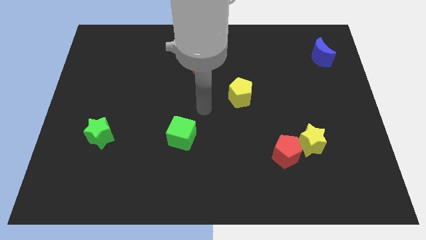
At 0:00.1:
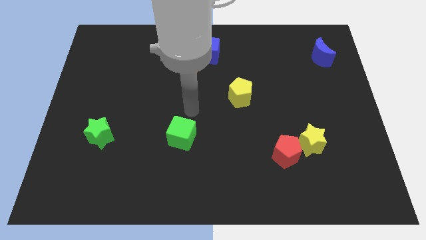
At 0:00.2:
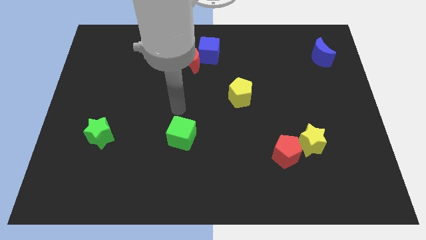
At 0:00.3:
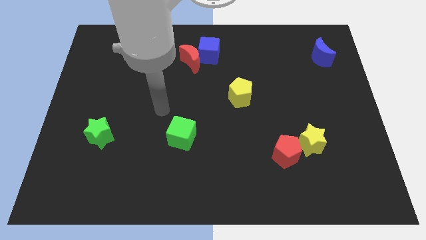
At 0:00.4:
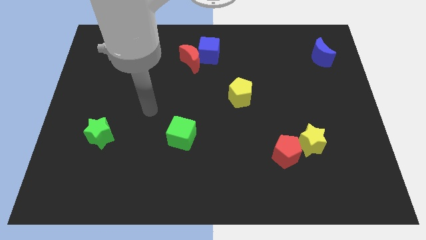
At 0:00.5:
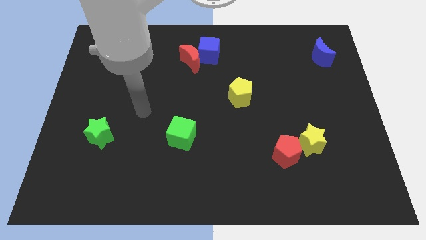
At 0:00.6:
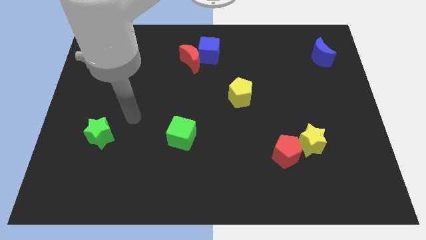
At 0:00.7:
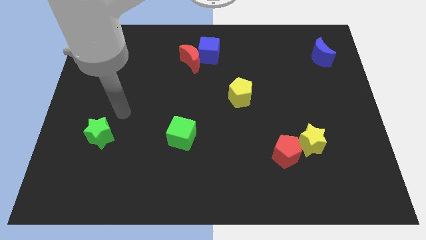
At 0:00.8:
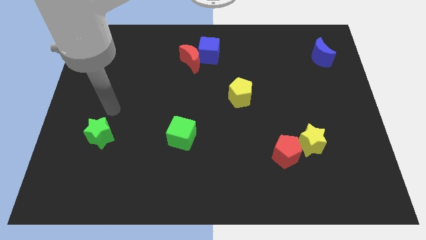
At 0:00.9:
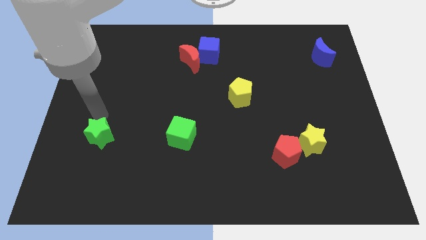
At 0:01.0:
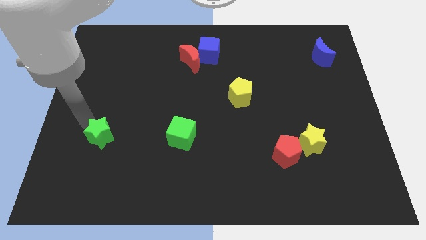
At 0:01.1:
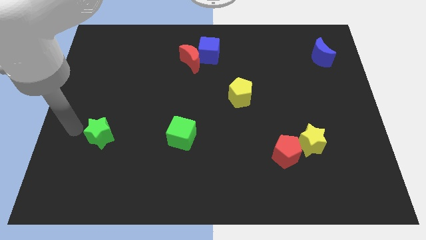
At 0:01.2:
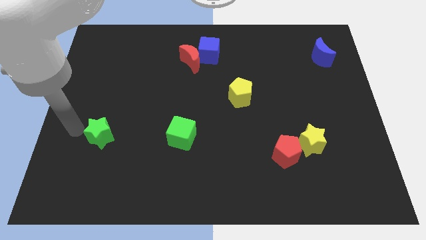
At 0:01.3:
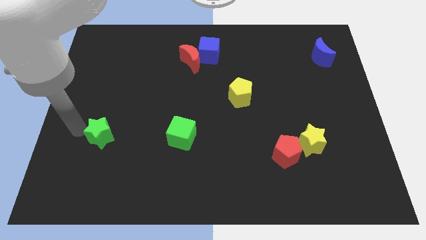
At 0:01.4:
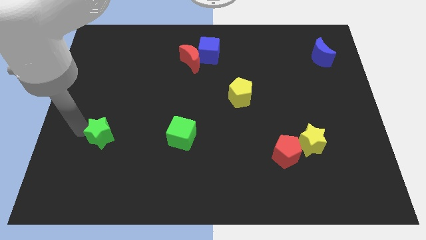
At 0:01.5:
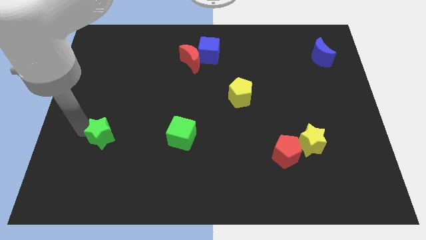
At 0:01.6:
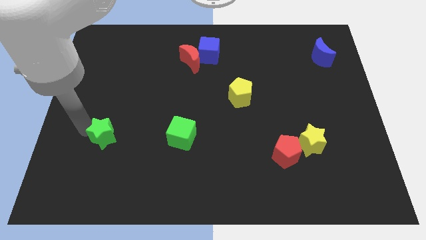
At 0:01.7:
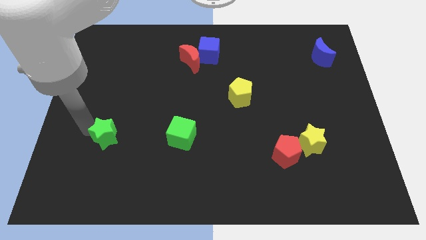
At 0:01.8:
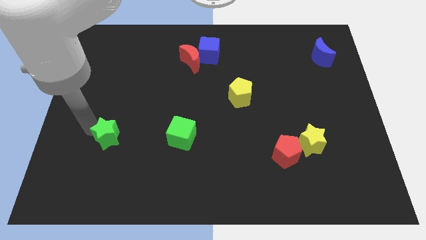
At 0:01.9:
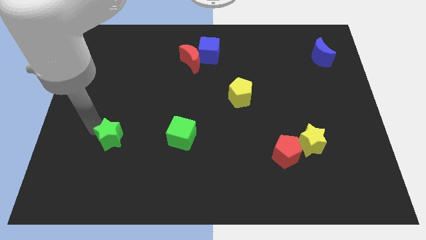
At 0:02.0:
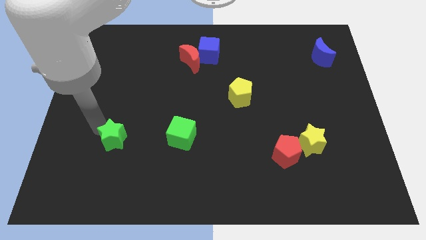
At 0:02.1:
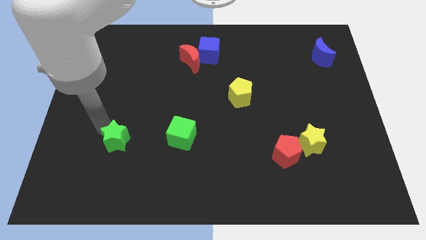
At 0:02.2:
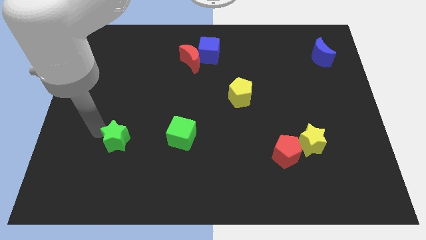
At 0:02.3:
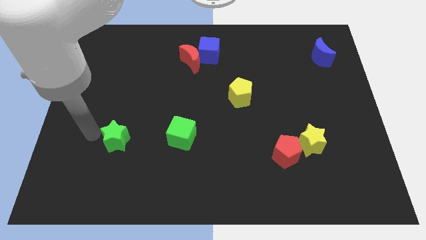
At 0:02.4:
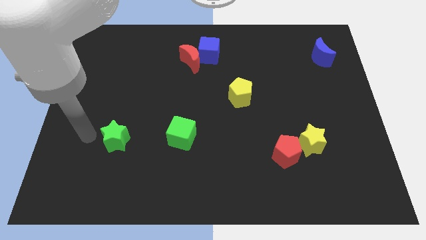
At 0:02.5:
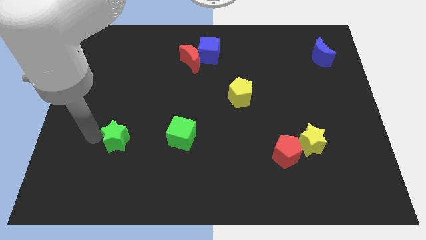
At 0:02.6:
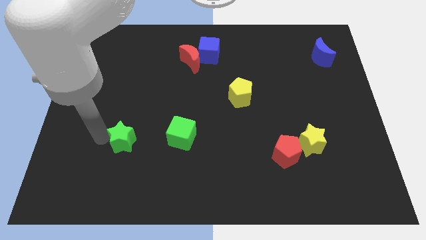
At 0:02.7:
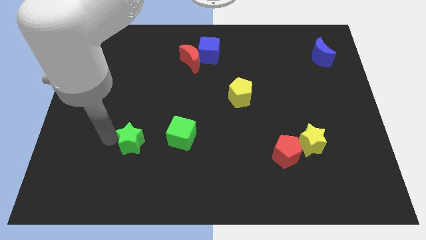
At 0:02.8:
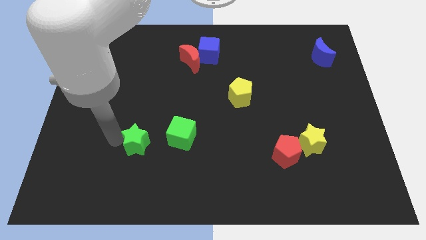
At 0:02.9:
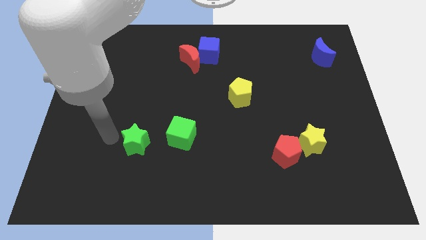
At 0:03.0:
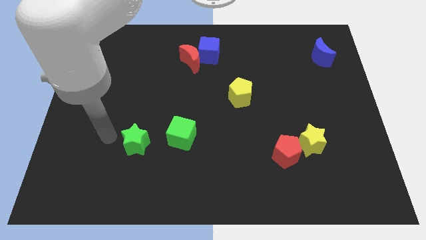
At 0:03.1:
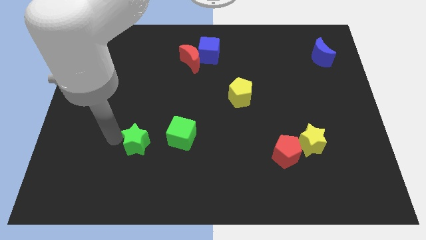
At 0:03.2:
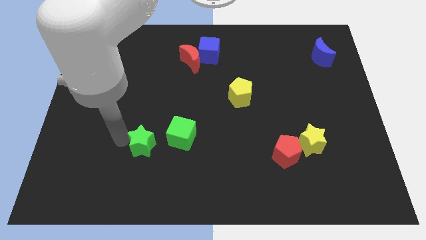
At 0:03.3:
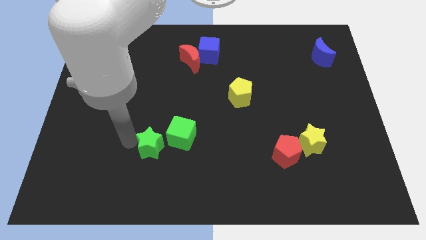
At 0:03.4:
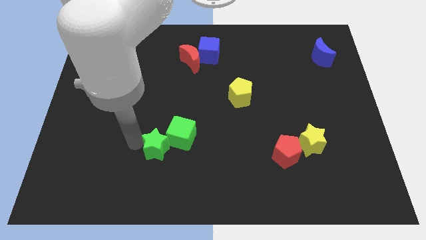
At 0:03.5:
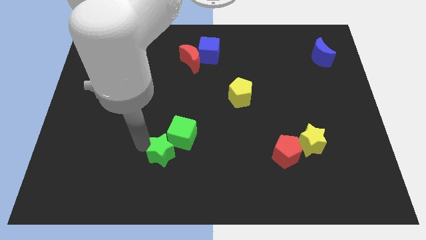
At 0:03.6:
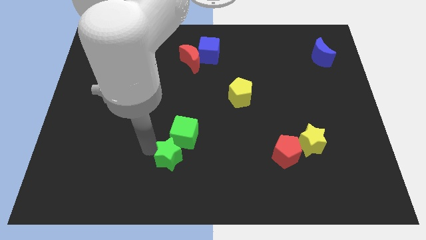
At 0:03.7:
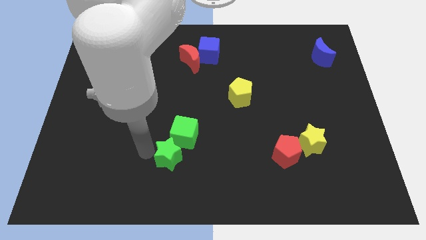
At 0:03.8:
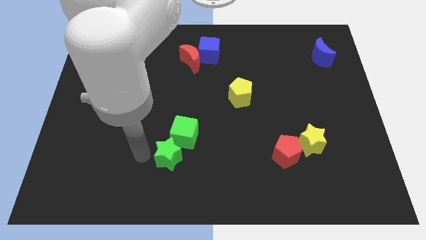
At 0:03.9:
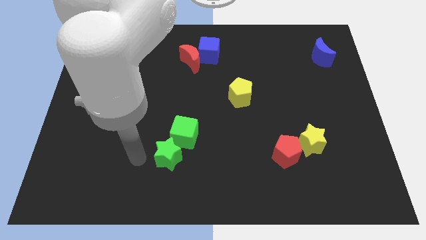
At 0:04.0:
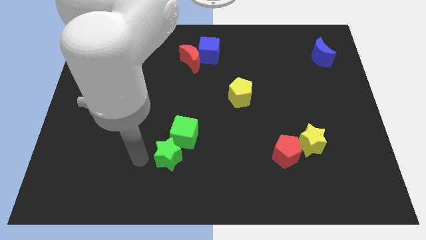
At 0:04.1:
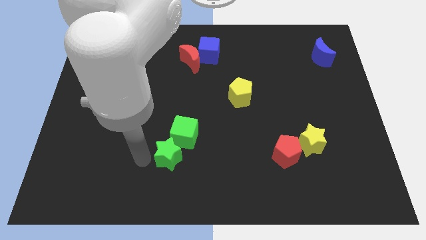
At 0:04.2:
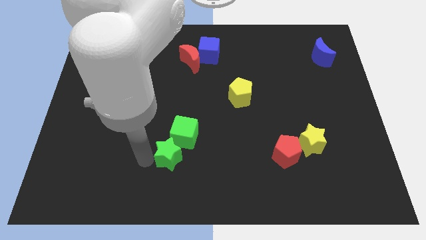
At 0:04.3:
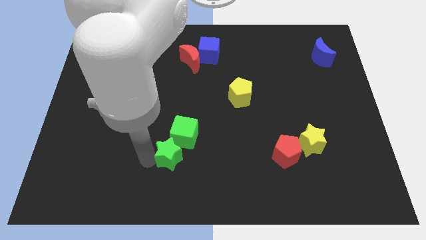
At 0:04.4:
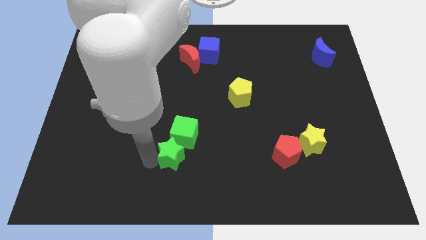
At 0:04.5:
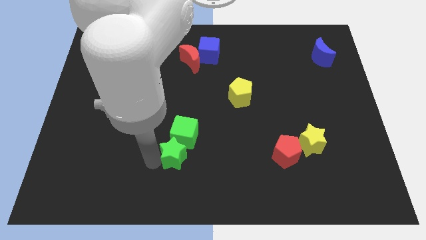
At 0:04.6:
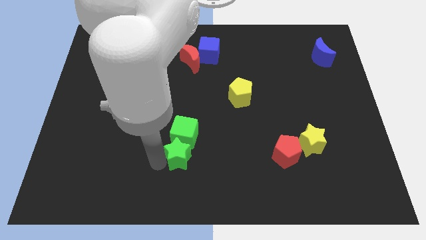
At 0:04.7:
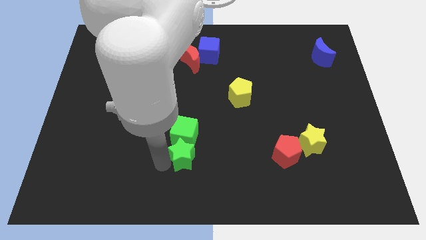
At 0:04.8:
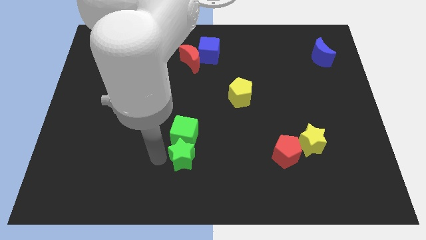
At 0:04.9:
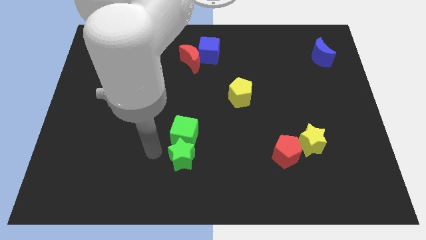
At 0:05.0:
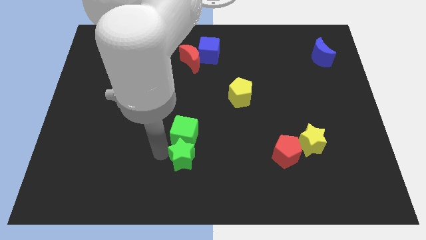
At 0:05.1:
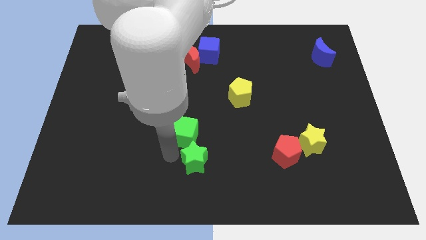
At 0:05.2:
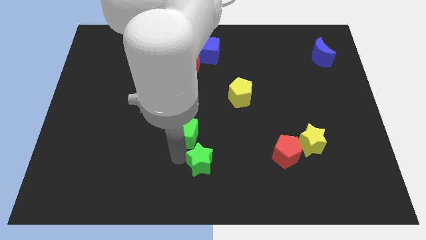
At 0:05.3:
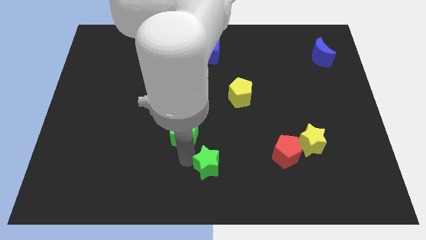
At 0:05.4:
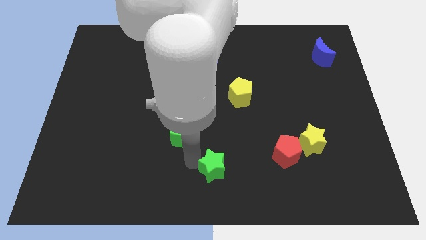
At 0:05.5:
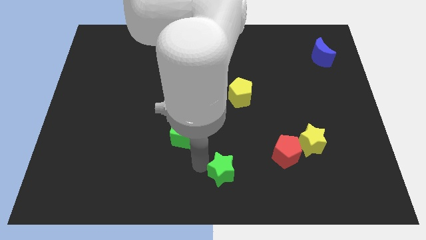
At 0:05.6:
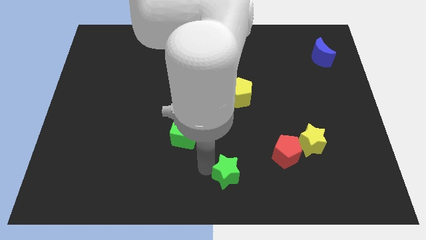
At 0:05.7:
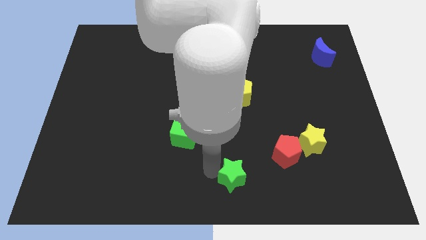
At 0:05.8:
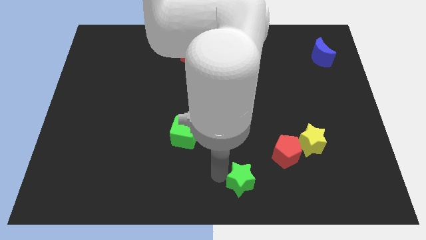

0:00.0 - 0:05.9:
push the green star diagonally down and to the left of the red pentagon
